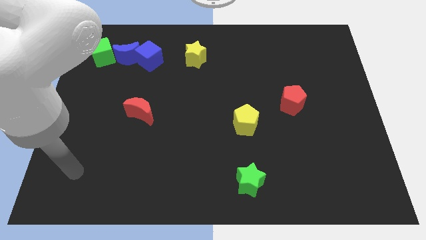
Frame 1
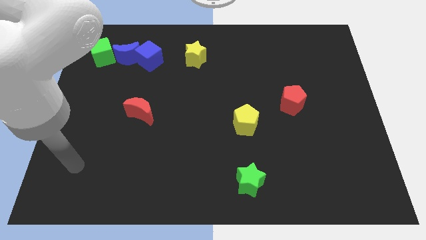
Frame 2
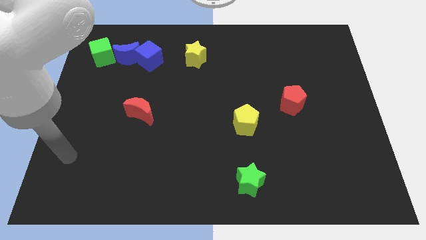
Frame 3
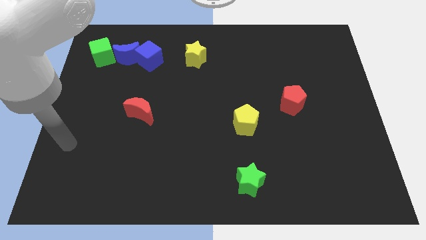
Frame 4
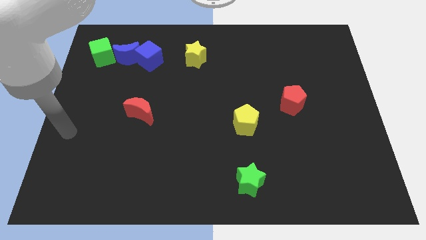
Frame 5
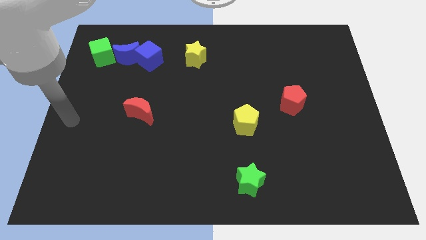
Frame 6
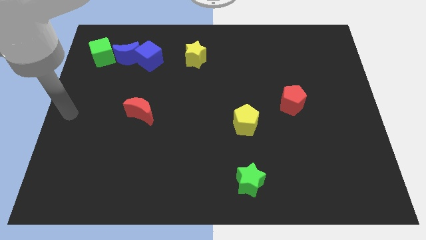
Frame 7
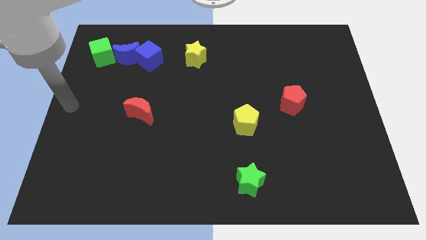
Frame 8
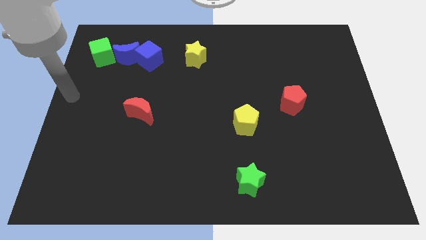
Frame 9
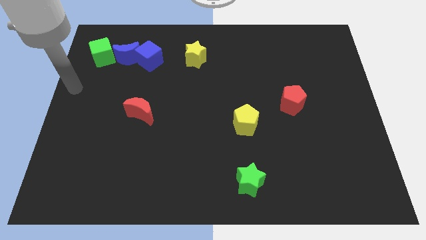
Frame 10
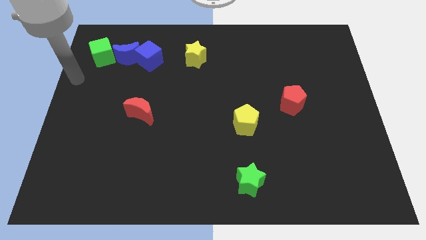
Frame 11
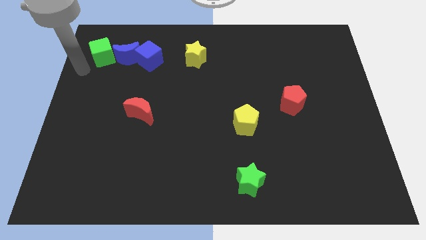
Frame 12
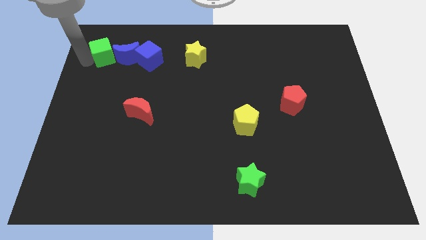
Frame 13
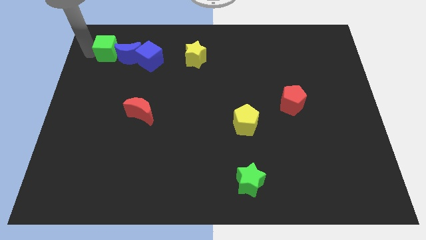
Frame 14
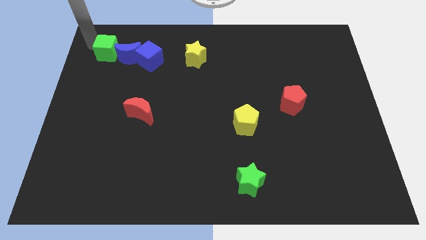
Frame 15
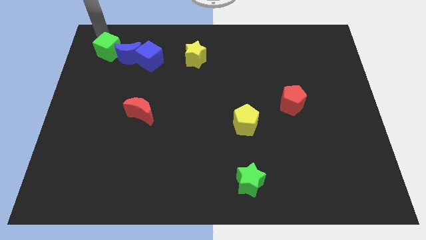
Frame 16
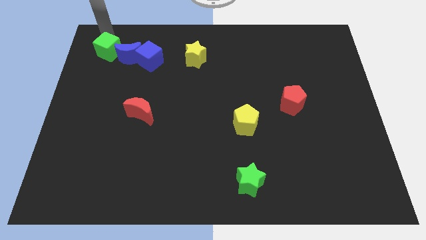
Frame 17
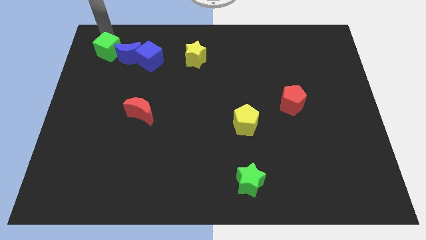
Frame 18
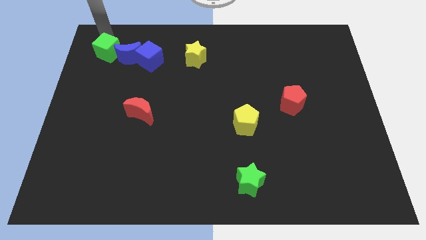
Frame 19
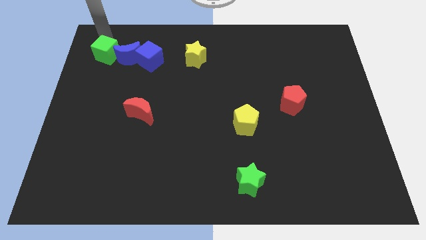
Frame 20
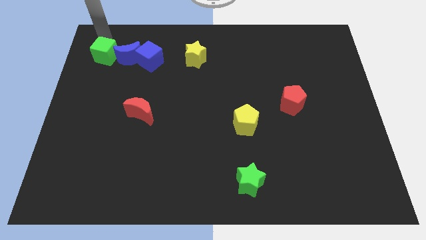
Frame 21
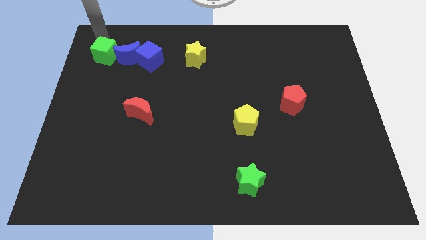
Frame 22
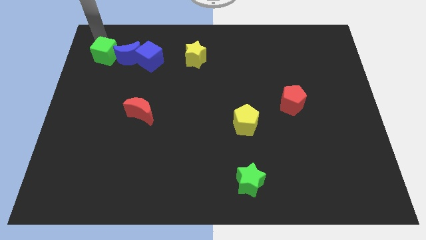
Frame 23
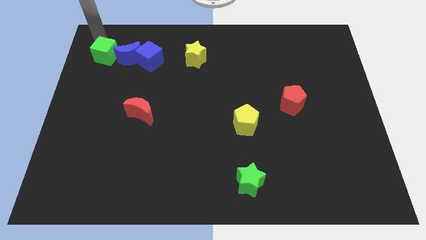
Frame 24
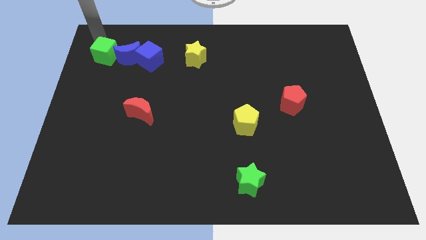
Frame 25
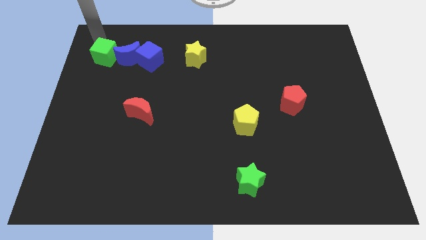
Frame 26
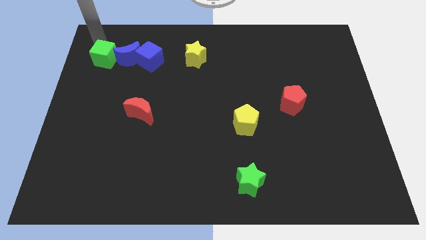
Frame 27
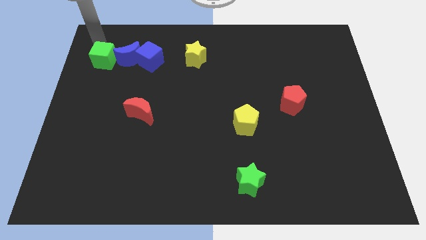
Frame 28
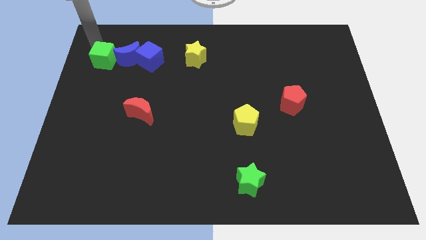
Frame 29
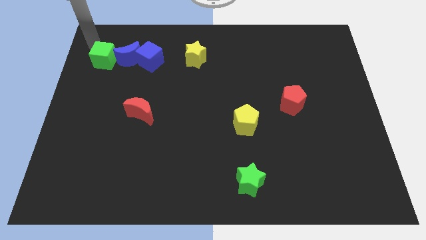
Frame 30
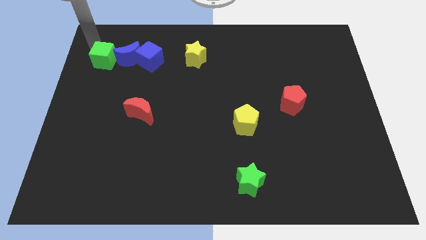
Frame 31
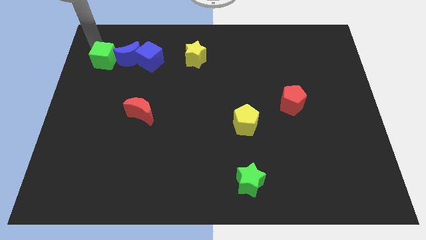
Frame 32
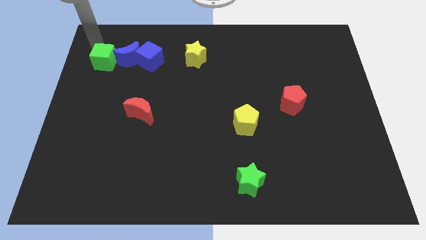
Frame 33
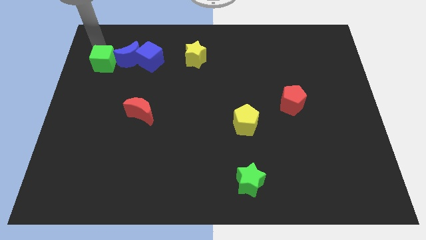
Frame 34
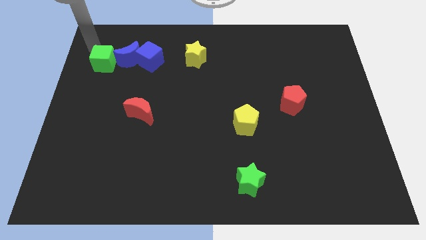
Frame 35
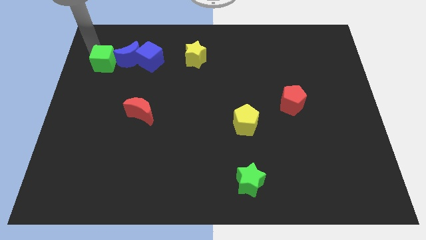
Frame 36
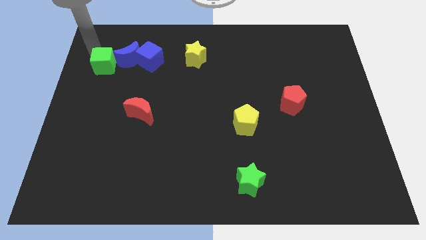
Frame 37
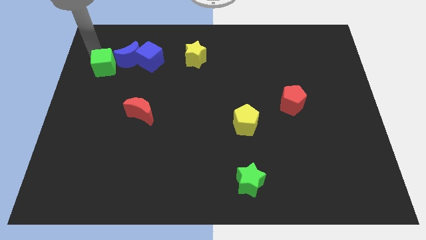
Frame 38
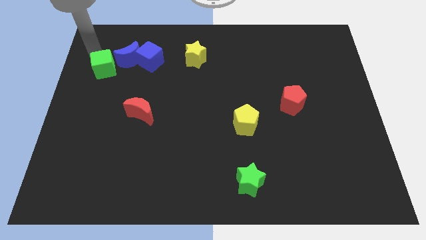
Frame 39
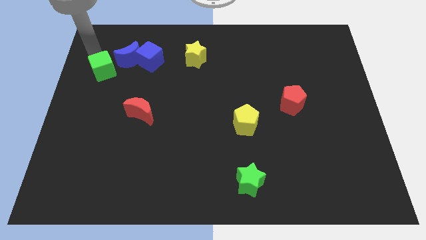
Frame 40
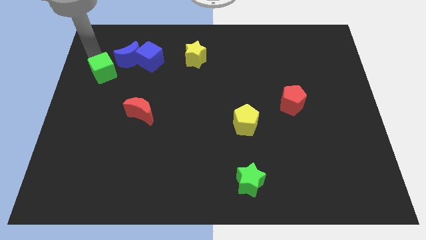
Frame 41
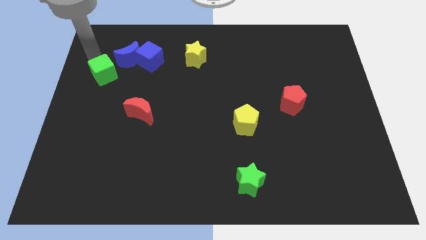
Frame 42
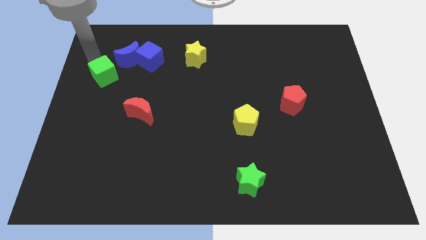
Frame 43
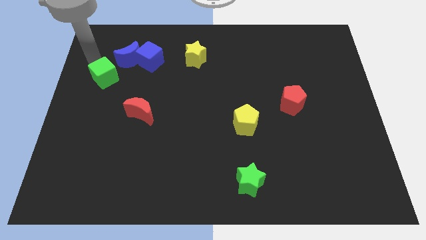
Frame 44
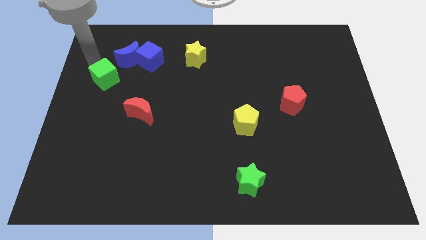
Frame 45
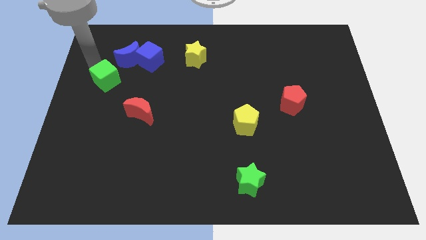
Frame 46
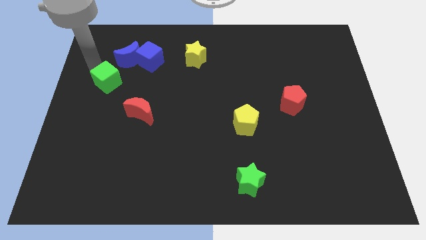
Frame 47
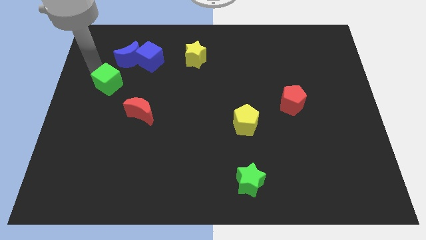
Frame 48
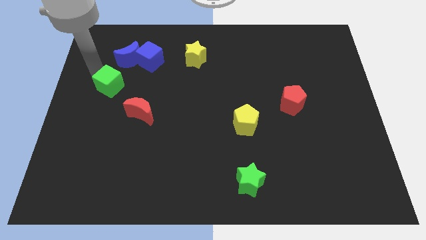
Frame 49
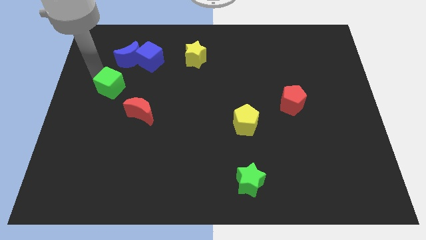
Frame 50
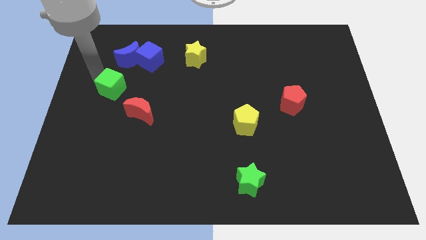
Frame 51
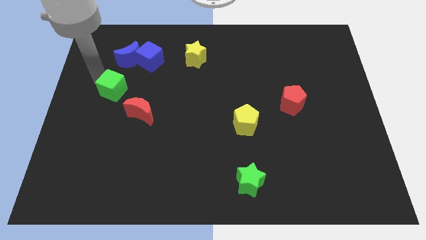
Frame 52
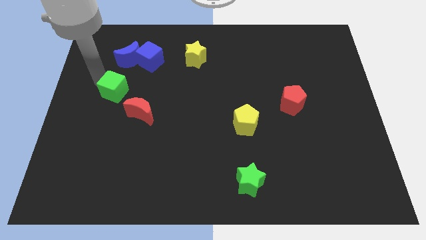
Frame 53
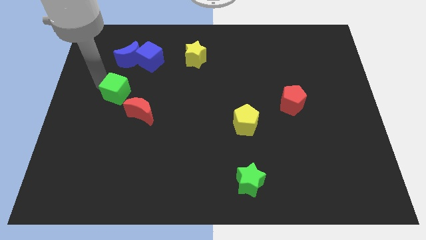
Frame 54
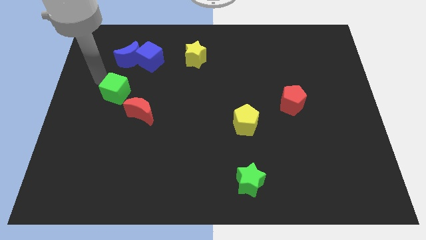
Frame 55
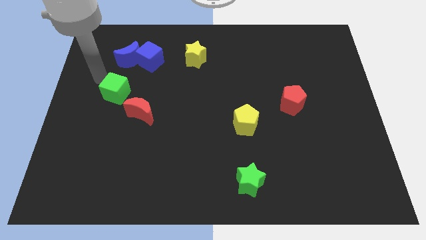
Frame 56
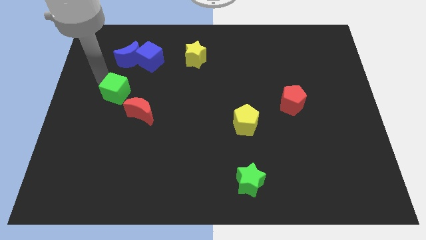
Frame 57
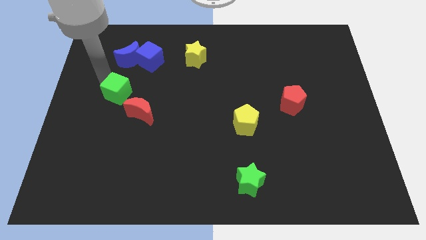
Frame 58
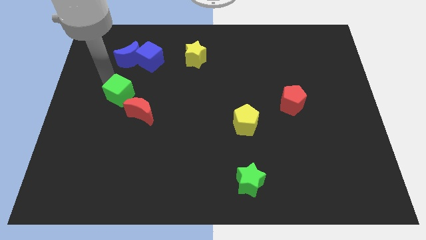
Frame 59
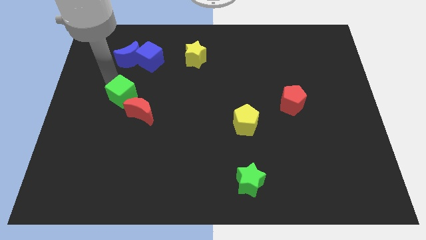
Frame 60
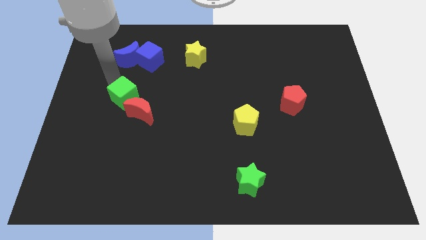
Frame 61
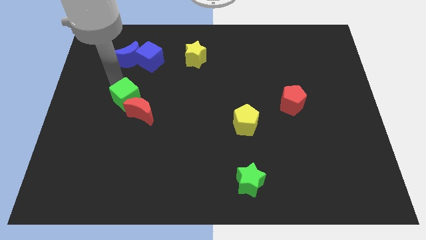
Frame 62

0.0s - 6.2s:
push the green cube to the red moon

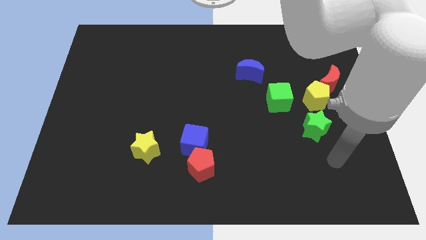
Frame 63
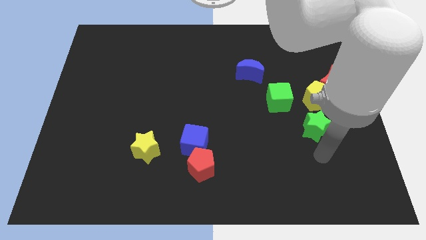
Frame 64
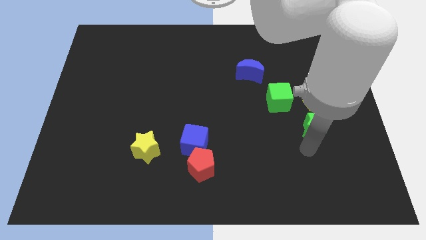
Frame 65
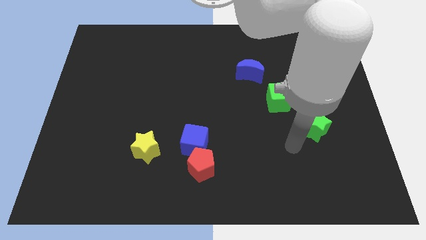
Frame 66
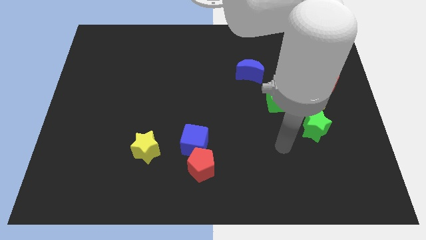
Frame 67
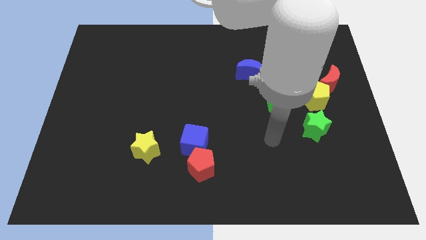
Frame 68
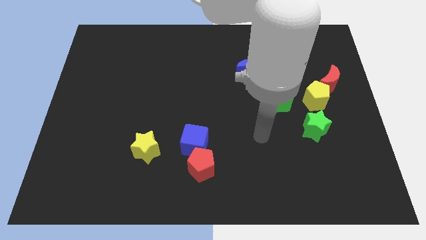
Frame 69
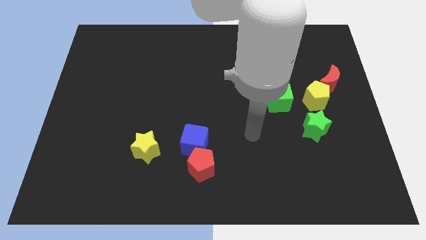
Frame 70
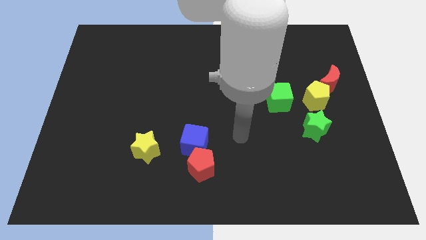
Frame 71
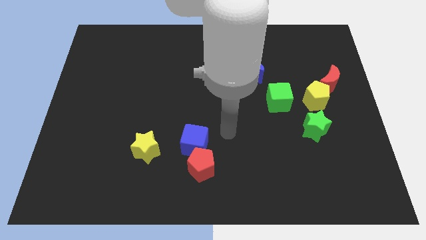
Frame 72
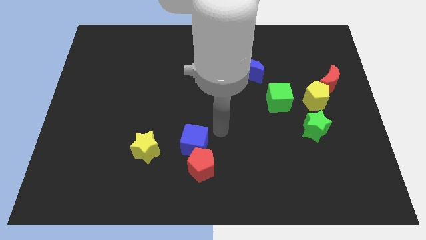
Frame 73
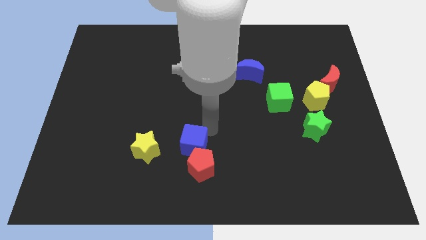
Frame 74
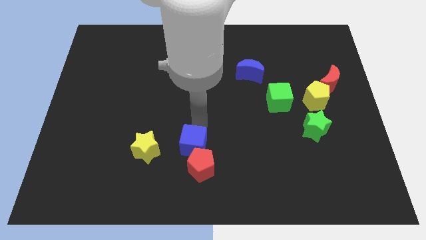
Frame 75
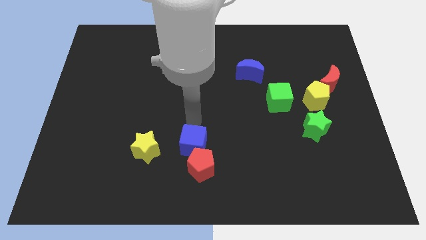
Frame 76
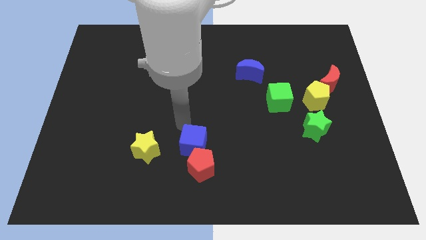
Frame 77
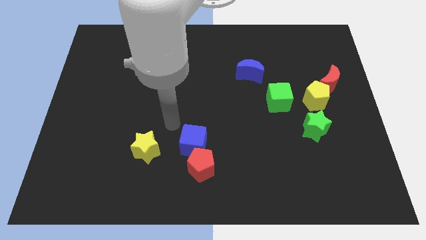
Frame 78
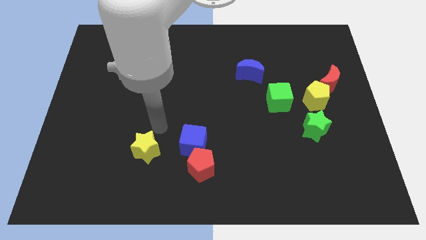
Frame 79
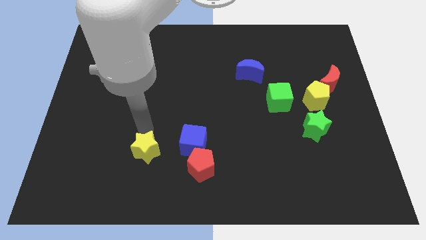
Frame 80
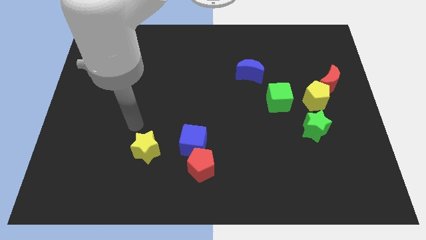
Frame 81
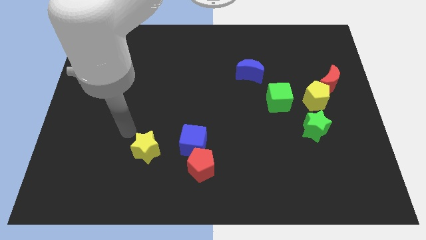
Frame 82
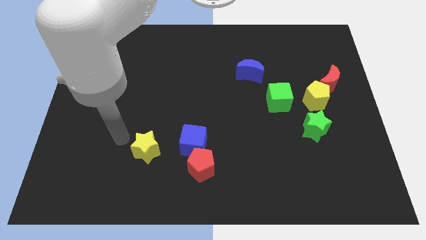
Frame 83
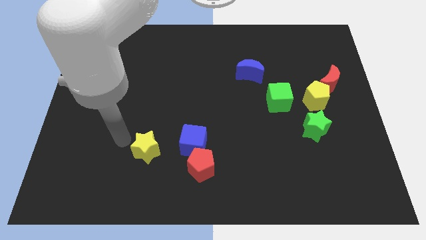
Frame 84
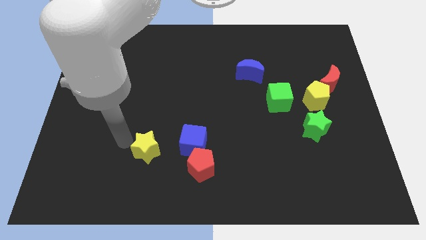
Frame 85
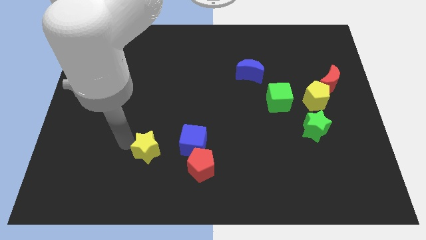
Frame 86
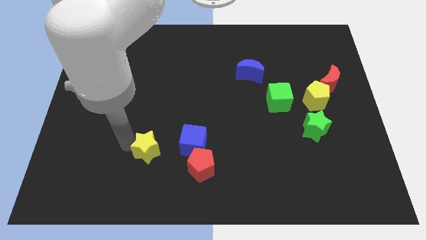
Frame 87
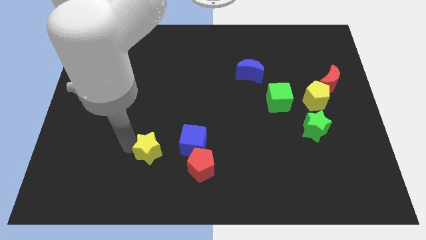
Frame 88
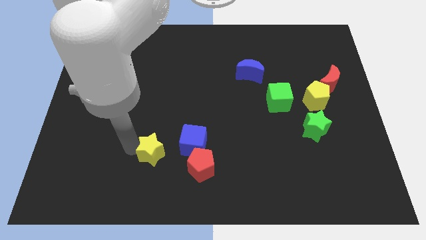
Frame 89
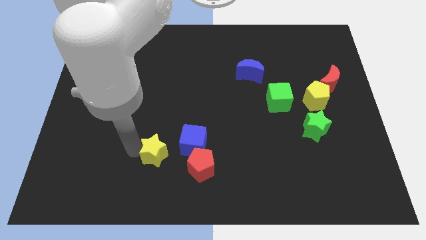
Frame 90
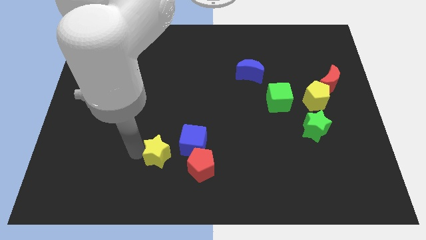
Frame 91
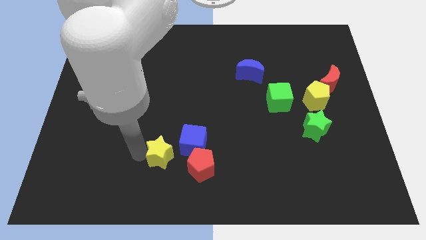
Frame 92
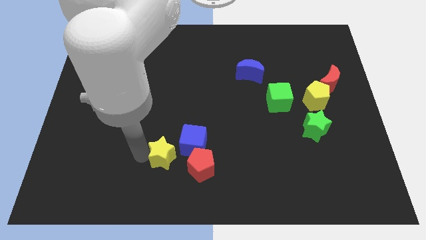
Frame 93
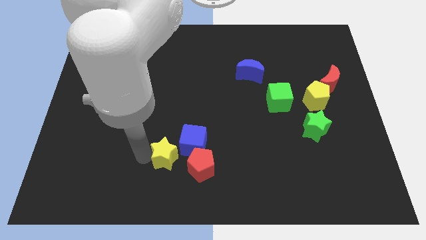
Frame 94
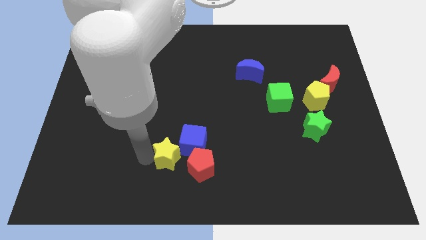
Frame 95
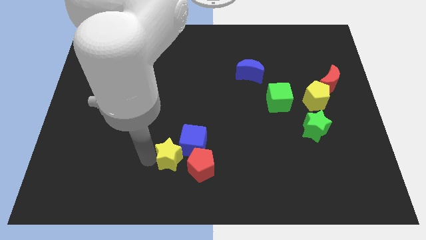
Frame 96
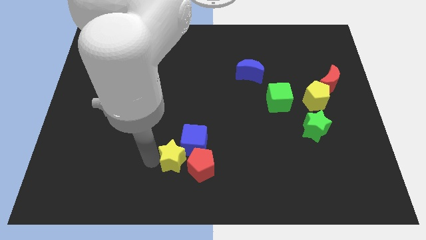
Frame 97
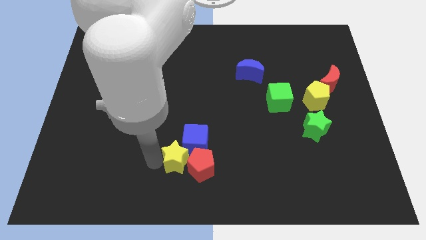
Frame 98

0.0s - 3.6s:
slide the yellow star to the red pentagon
